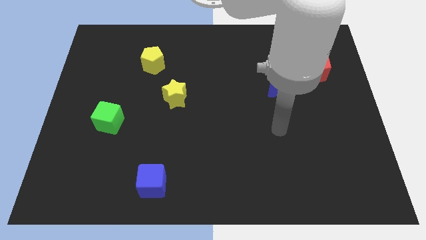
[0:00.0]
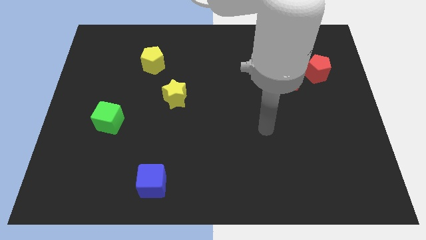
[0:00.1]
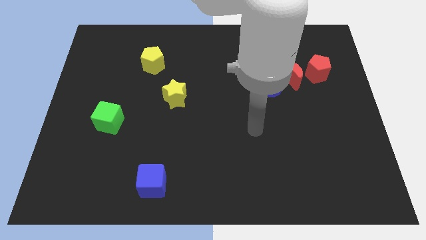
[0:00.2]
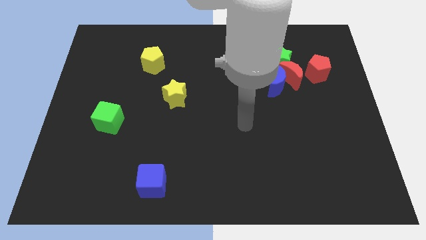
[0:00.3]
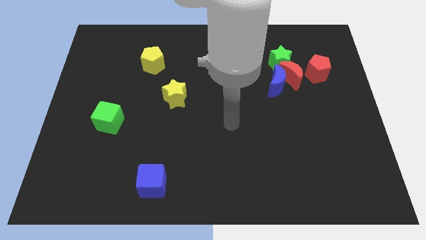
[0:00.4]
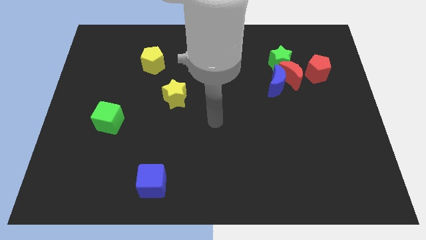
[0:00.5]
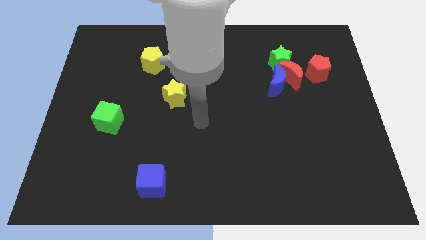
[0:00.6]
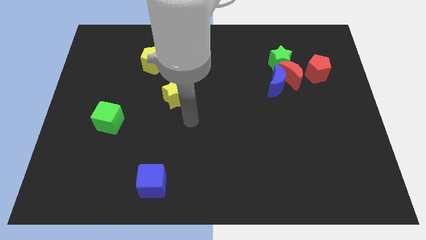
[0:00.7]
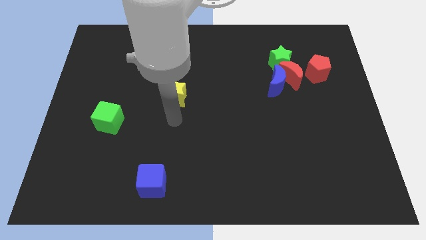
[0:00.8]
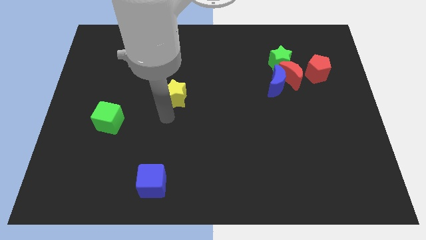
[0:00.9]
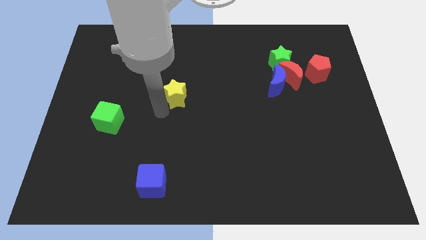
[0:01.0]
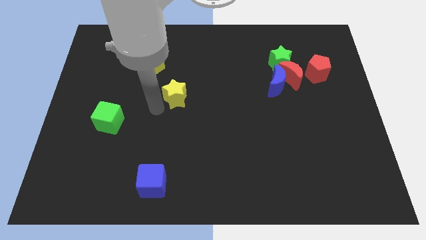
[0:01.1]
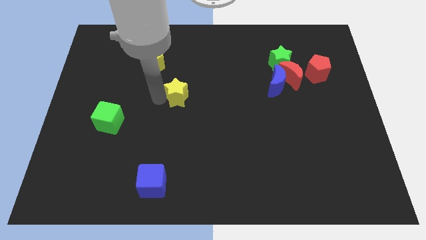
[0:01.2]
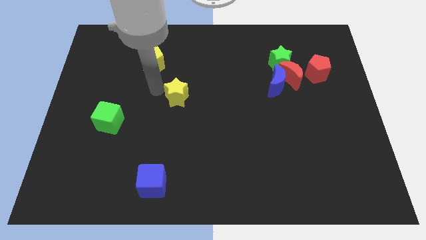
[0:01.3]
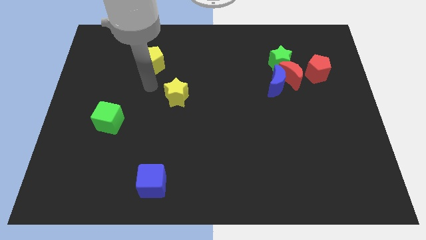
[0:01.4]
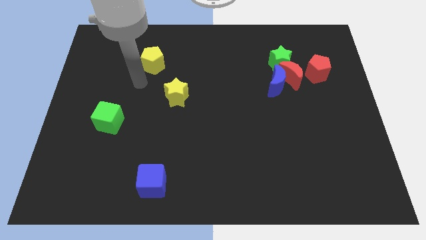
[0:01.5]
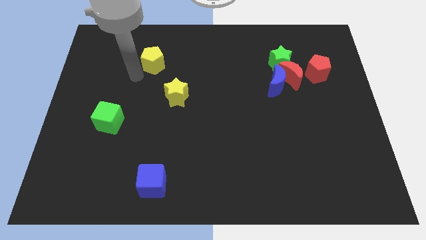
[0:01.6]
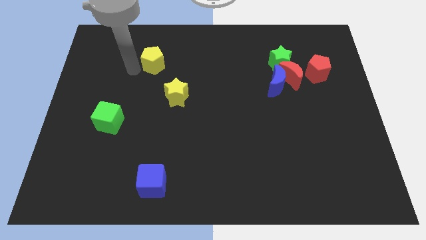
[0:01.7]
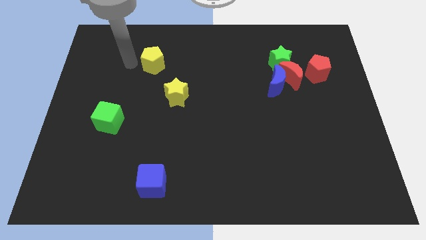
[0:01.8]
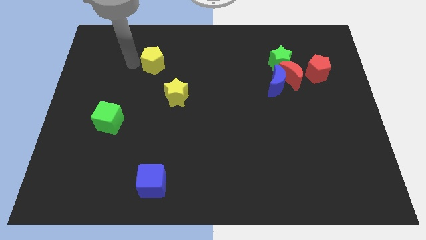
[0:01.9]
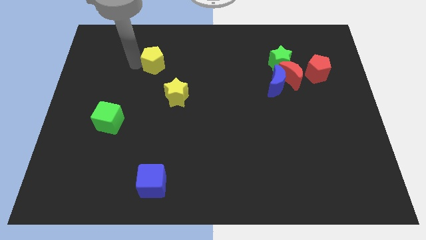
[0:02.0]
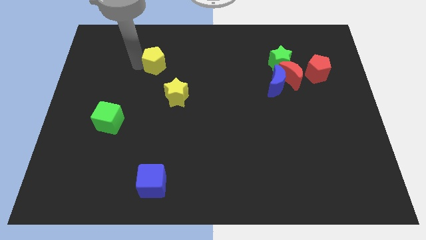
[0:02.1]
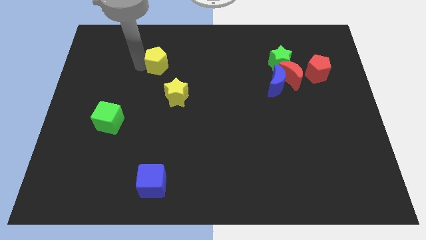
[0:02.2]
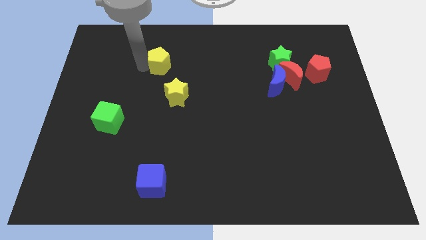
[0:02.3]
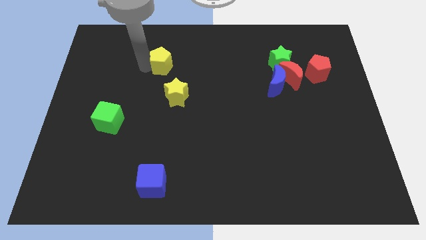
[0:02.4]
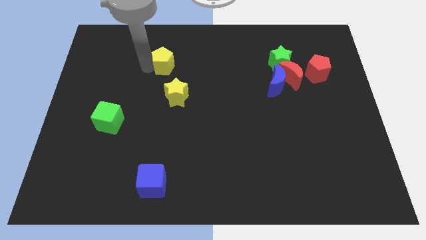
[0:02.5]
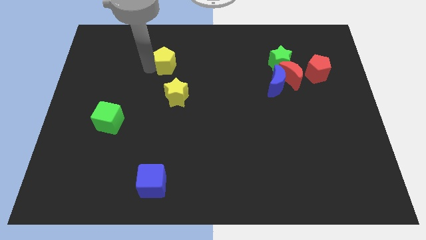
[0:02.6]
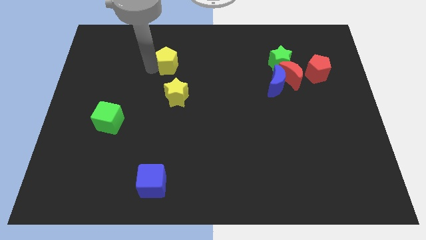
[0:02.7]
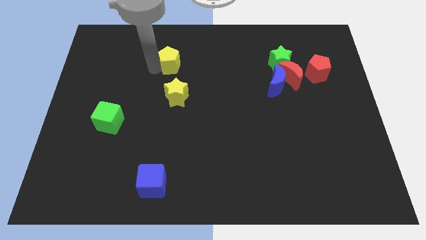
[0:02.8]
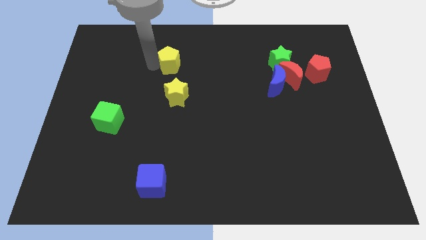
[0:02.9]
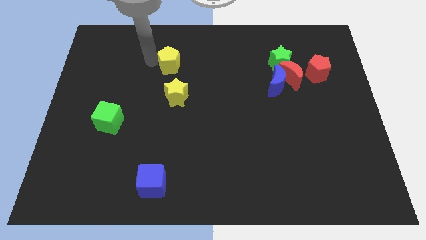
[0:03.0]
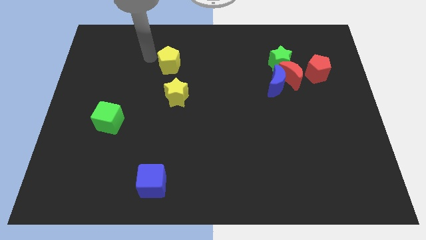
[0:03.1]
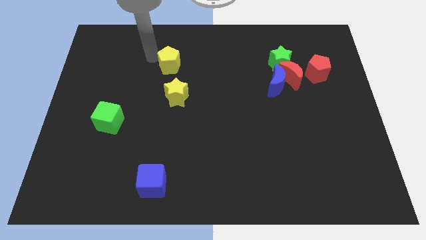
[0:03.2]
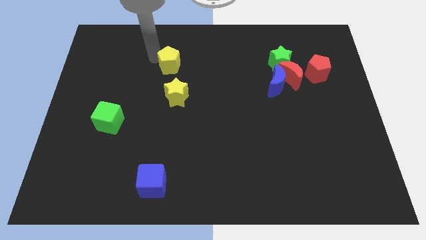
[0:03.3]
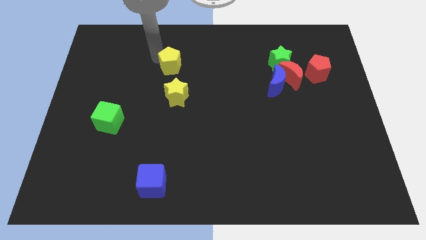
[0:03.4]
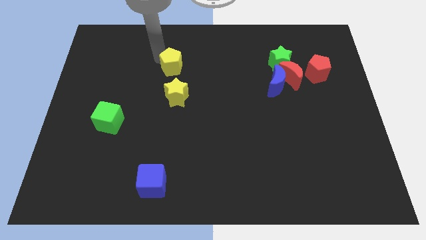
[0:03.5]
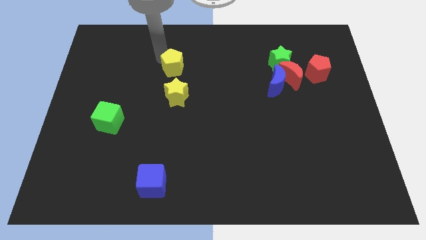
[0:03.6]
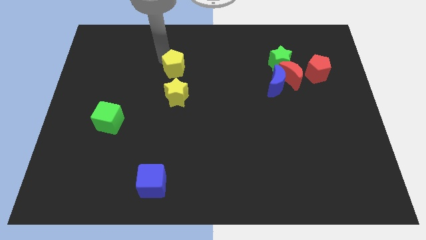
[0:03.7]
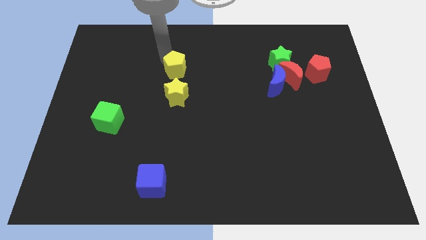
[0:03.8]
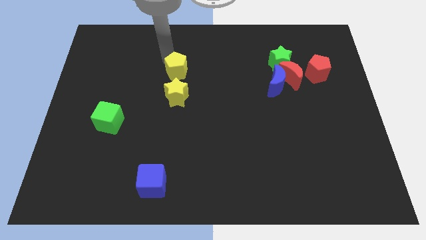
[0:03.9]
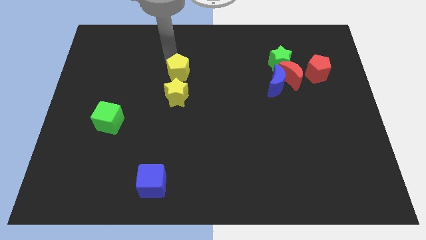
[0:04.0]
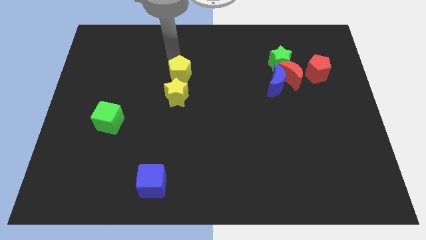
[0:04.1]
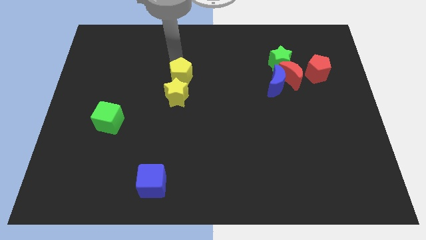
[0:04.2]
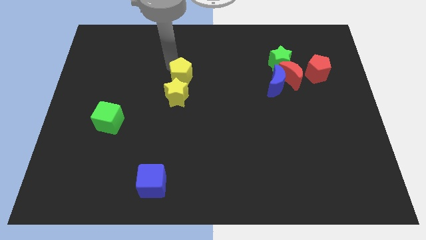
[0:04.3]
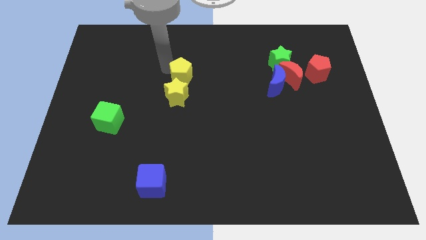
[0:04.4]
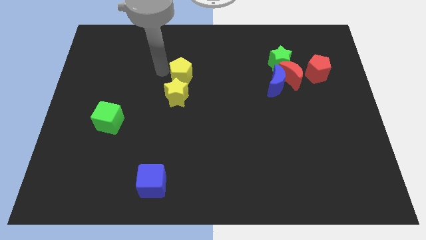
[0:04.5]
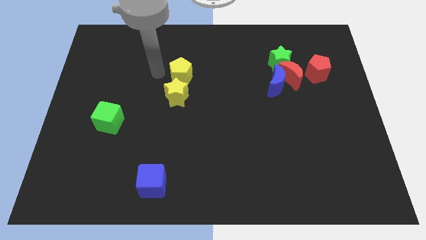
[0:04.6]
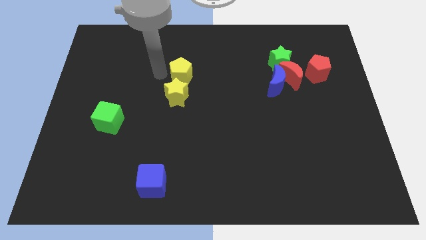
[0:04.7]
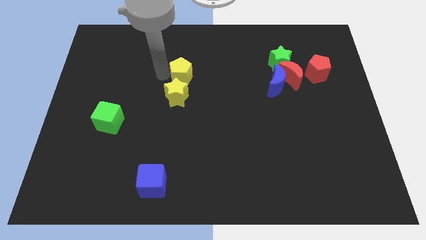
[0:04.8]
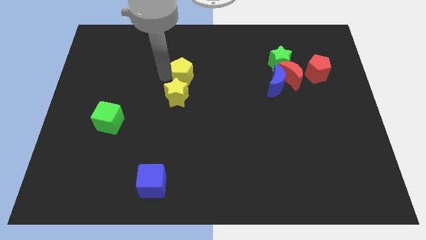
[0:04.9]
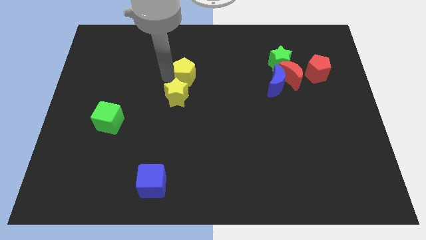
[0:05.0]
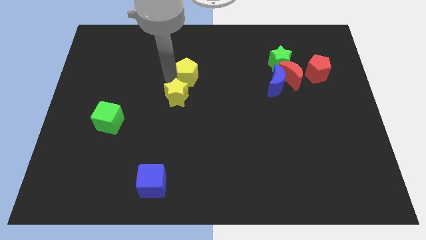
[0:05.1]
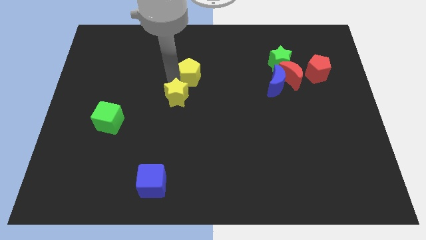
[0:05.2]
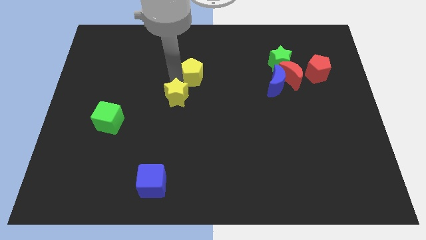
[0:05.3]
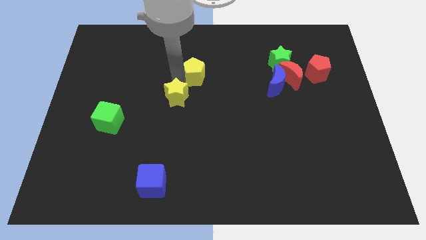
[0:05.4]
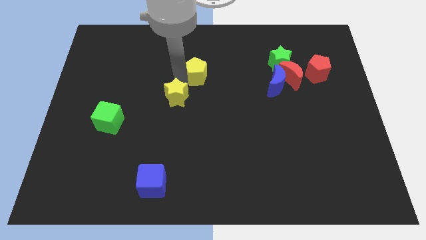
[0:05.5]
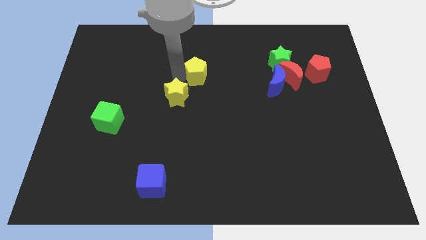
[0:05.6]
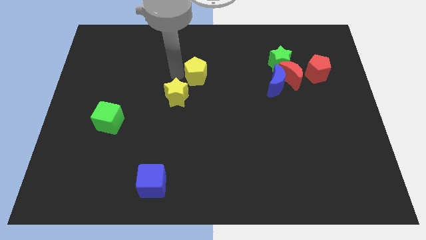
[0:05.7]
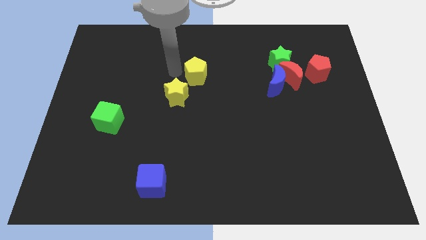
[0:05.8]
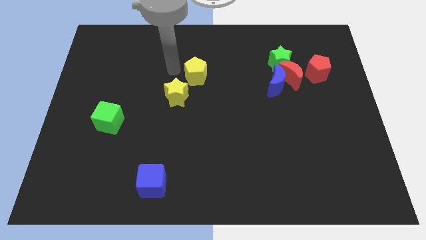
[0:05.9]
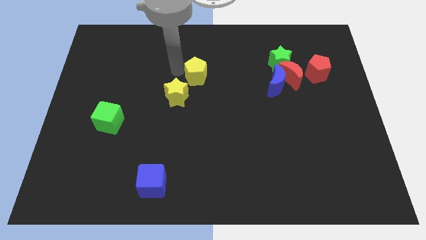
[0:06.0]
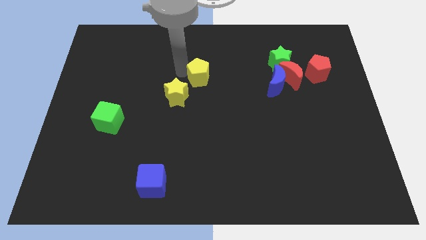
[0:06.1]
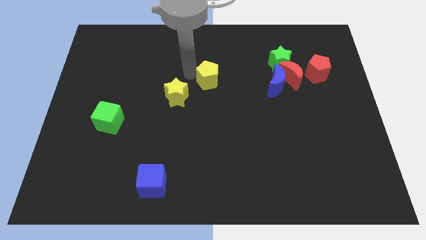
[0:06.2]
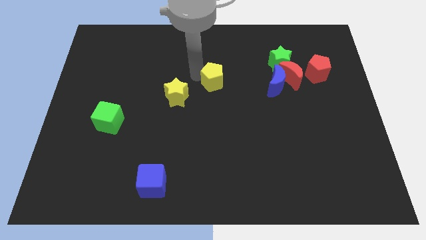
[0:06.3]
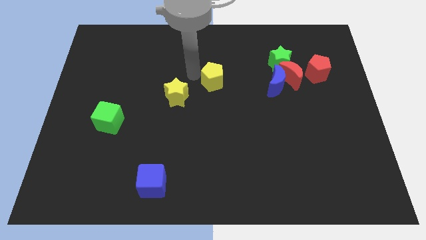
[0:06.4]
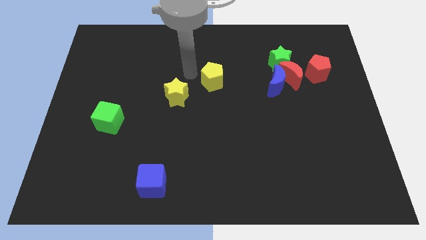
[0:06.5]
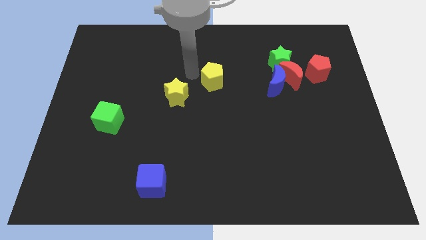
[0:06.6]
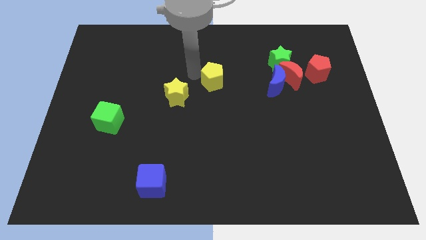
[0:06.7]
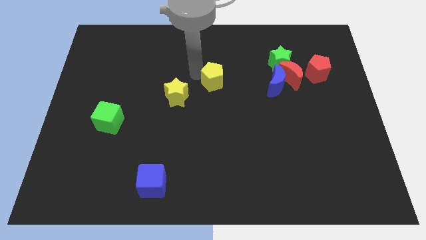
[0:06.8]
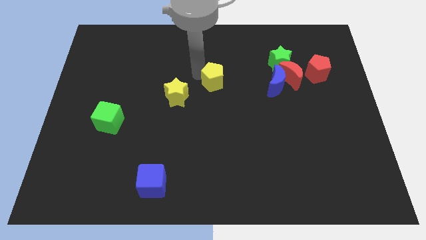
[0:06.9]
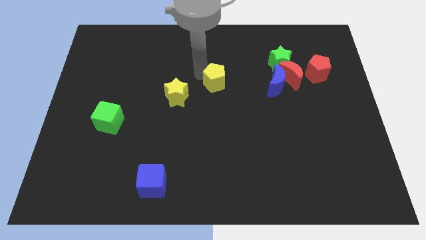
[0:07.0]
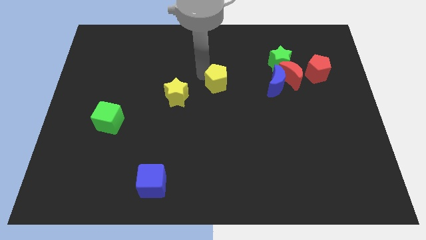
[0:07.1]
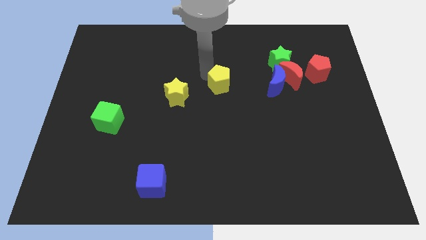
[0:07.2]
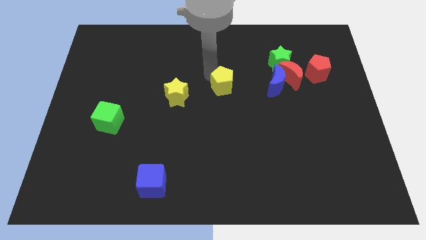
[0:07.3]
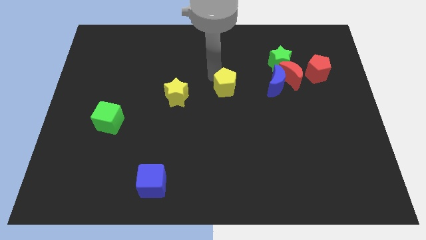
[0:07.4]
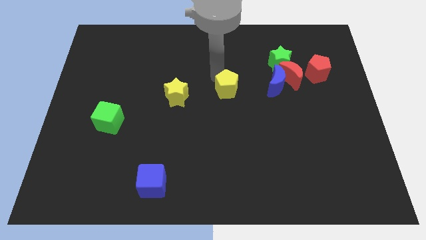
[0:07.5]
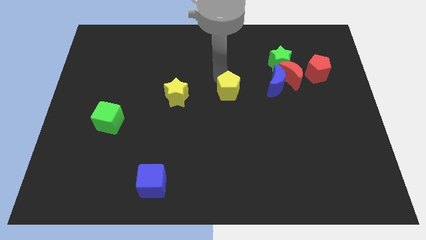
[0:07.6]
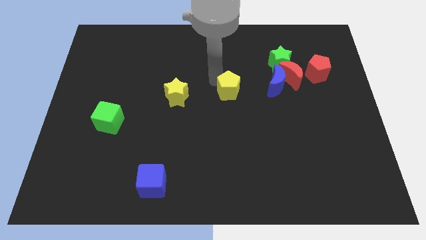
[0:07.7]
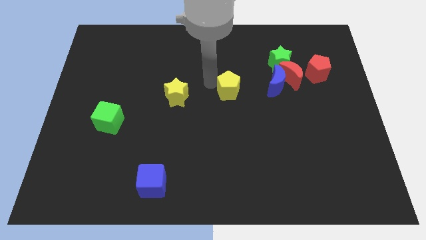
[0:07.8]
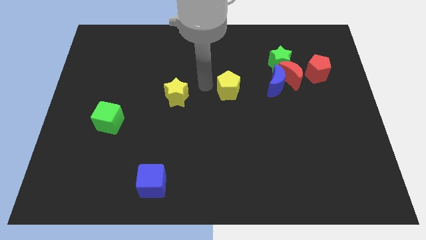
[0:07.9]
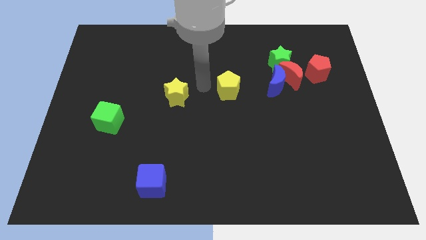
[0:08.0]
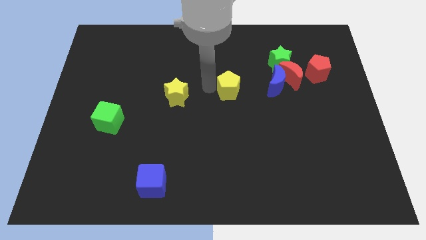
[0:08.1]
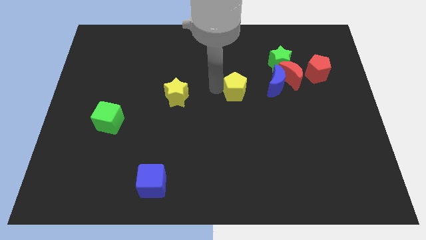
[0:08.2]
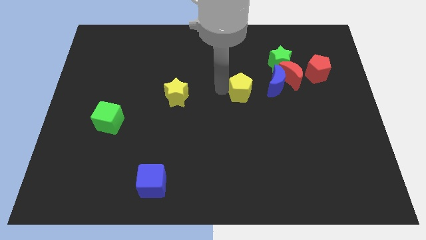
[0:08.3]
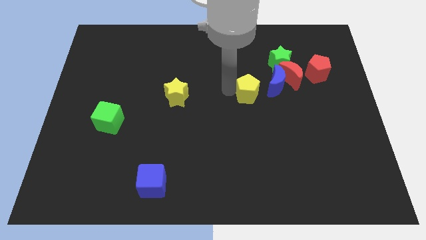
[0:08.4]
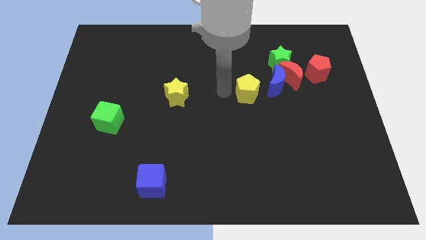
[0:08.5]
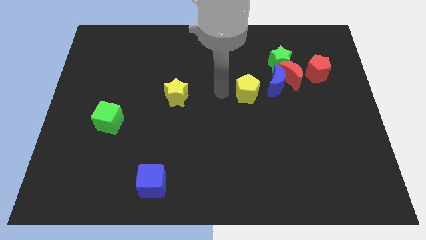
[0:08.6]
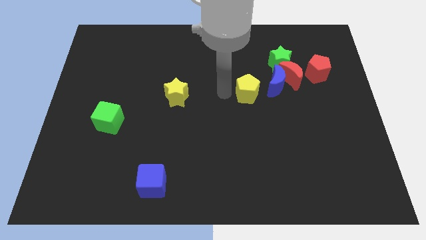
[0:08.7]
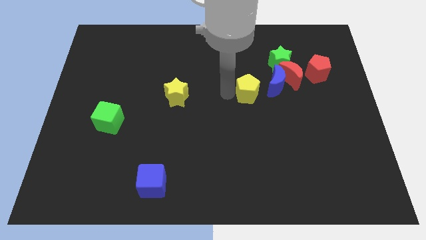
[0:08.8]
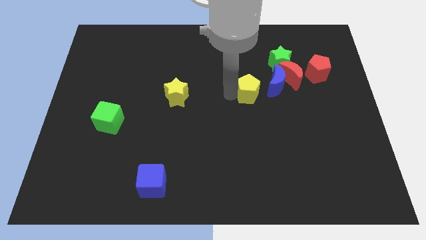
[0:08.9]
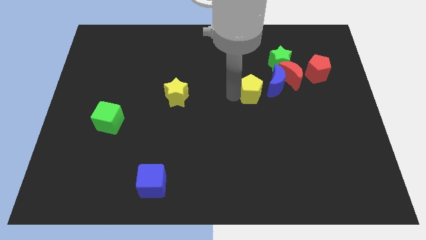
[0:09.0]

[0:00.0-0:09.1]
push the yellow pentagon to the bottom left of the red moon
